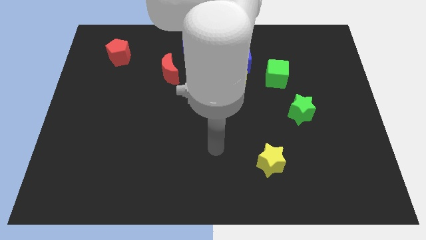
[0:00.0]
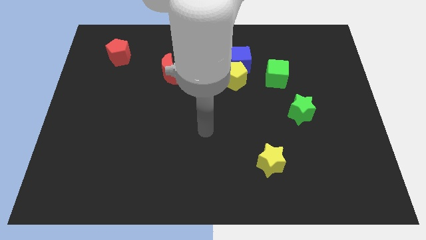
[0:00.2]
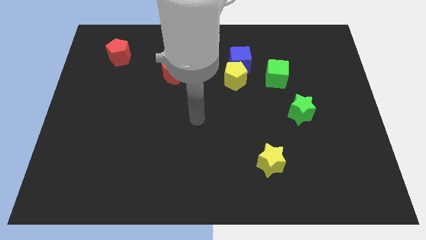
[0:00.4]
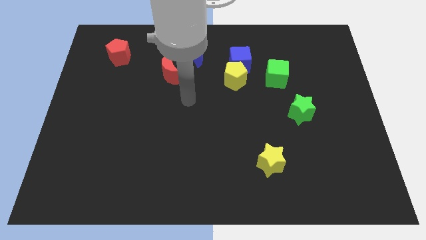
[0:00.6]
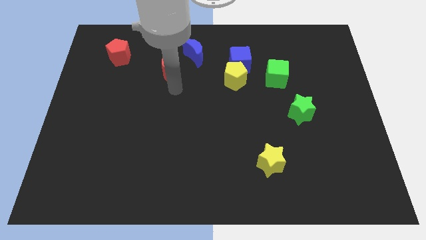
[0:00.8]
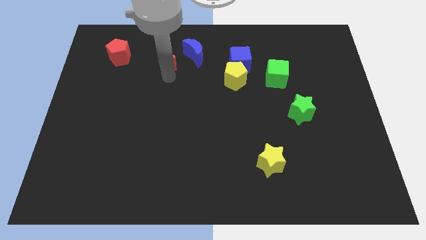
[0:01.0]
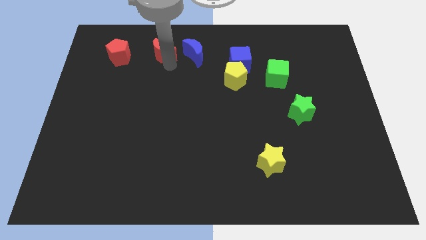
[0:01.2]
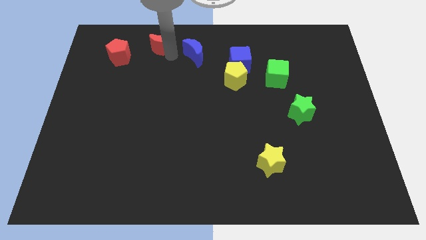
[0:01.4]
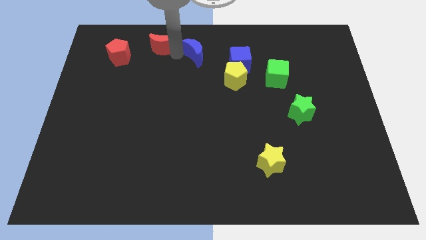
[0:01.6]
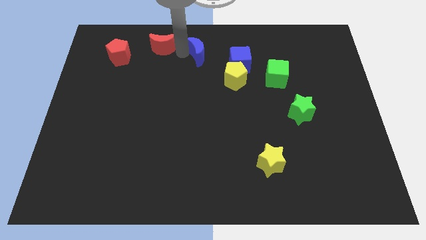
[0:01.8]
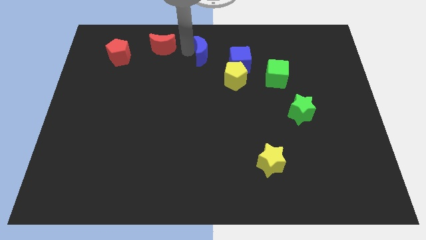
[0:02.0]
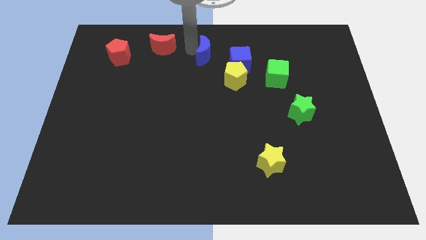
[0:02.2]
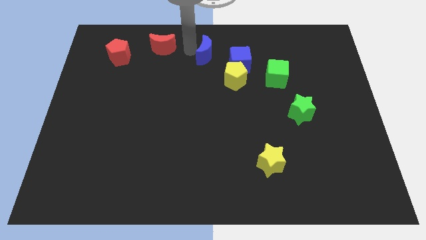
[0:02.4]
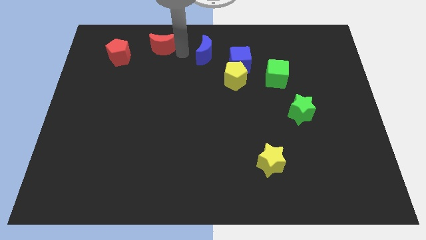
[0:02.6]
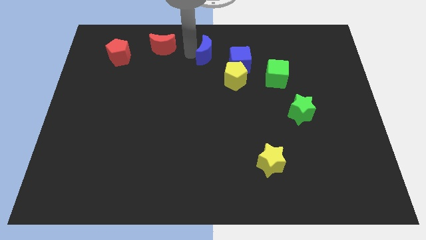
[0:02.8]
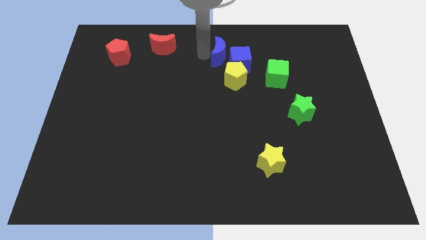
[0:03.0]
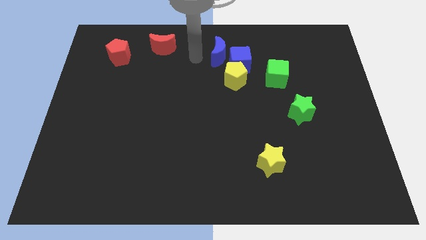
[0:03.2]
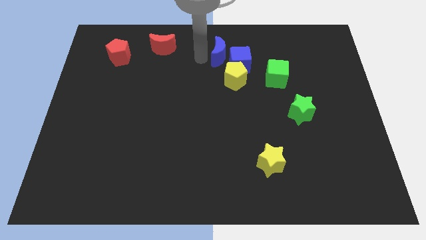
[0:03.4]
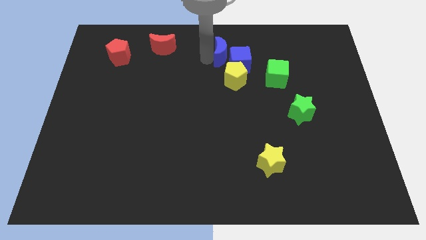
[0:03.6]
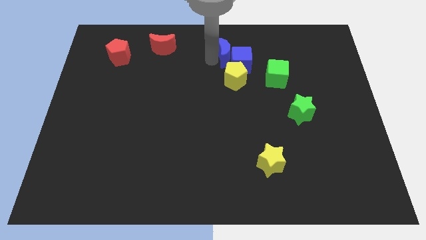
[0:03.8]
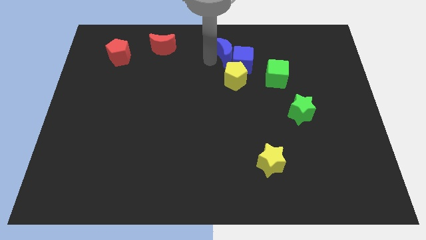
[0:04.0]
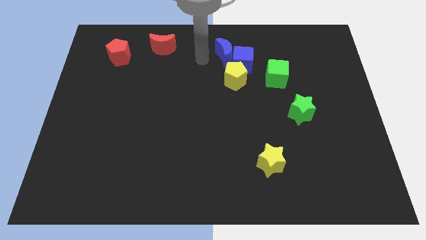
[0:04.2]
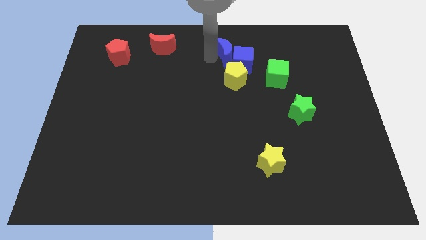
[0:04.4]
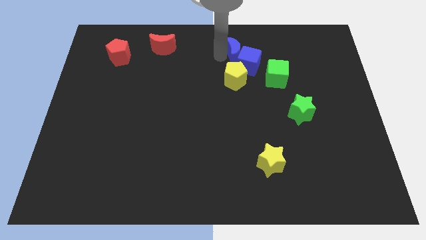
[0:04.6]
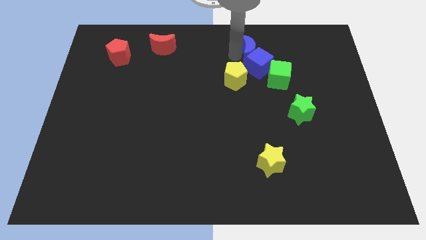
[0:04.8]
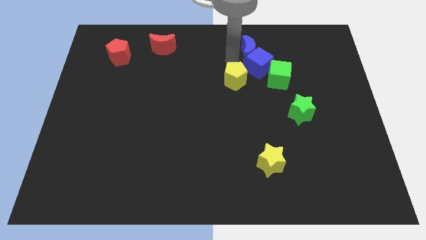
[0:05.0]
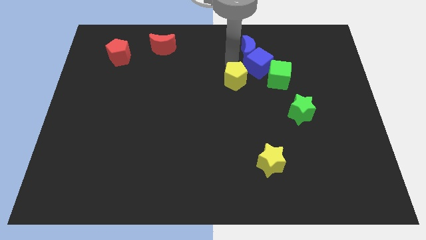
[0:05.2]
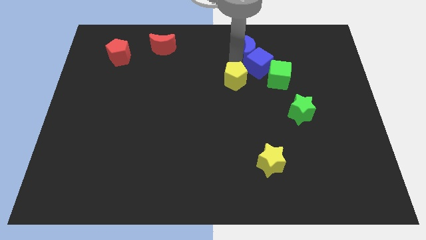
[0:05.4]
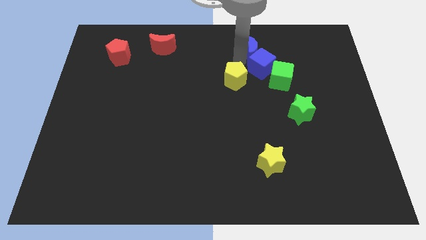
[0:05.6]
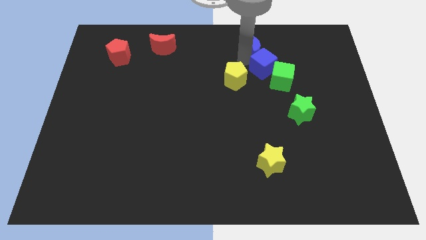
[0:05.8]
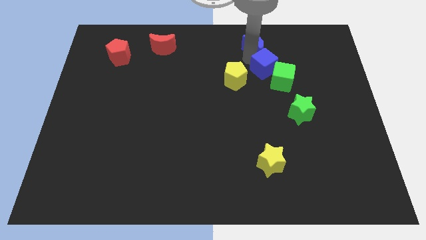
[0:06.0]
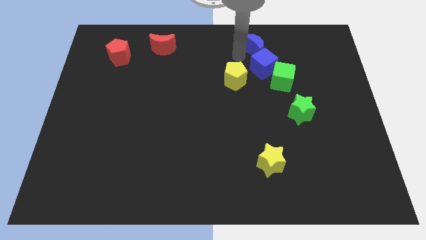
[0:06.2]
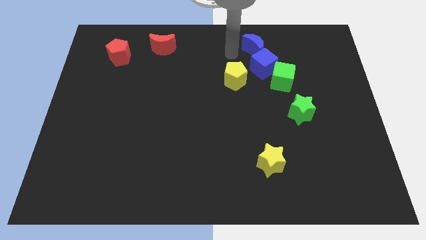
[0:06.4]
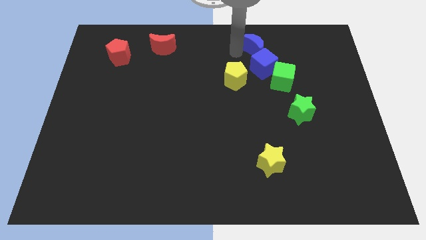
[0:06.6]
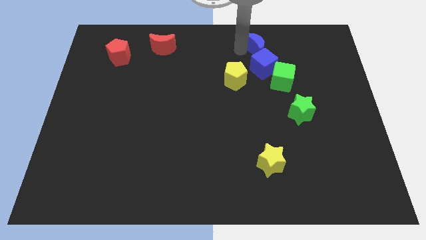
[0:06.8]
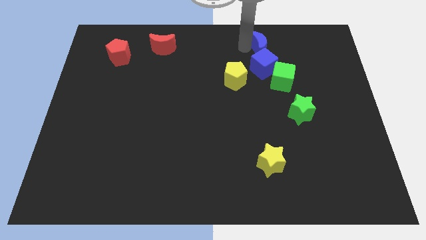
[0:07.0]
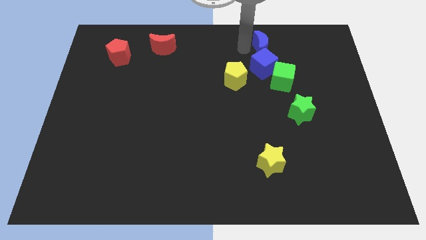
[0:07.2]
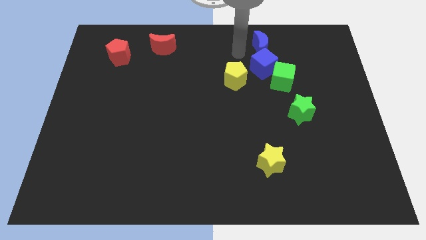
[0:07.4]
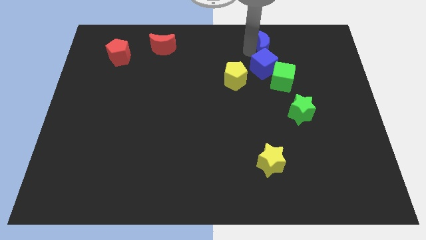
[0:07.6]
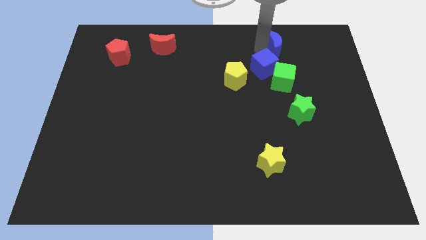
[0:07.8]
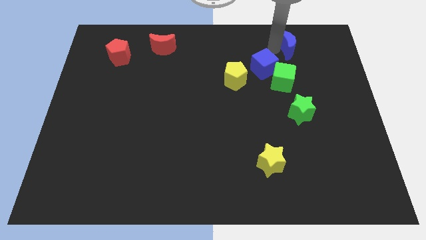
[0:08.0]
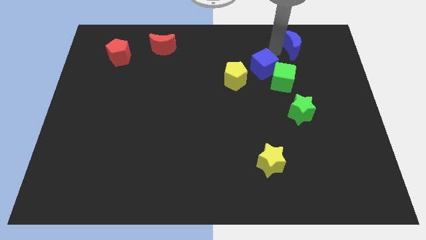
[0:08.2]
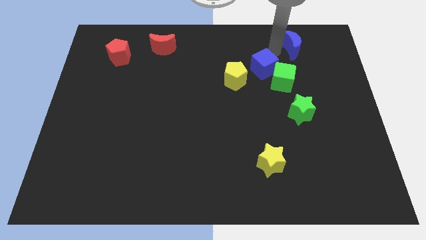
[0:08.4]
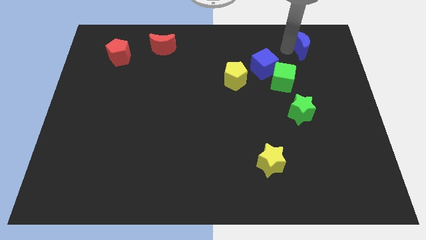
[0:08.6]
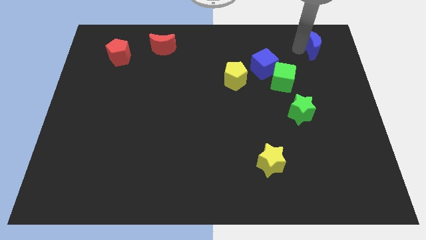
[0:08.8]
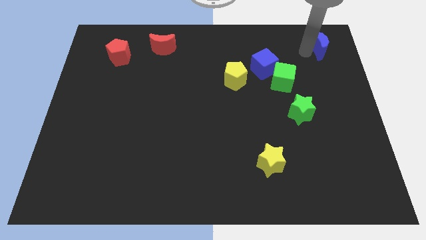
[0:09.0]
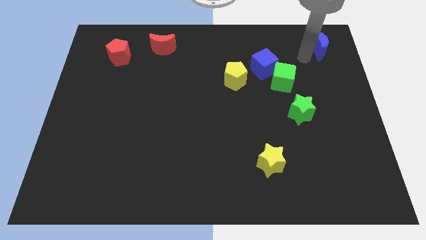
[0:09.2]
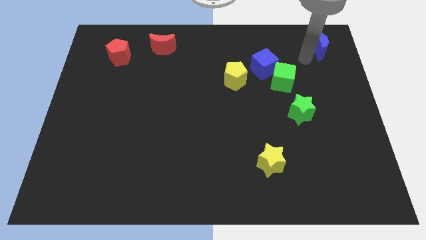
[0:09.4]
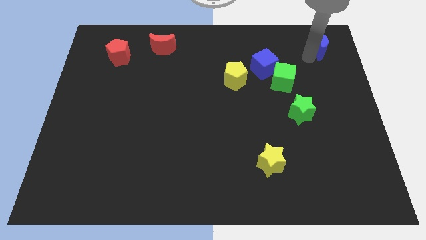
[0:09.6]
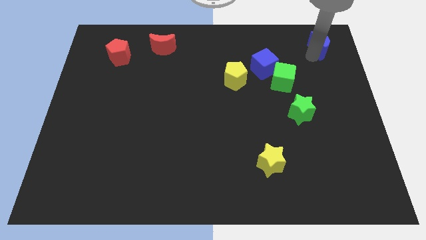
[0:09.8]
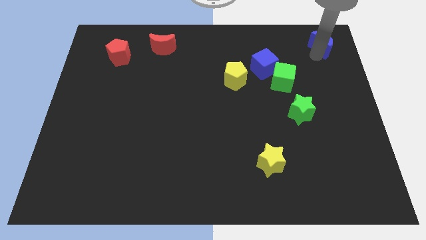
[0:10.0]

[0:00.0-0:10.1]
push the blue moon to the top right

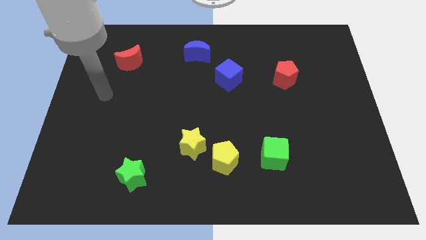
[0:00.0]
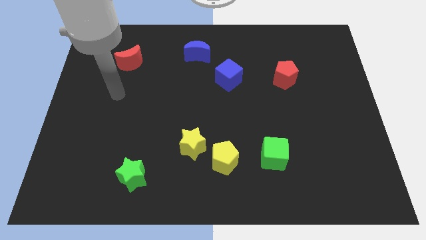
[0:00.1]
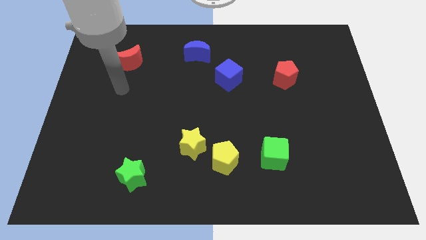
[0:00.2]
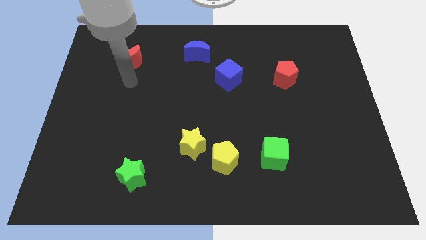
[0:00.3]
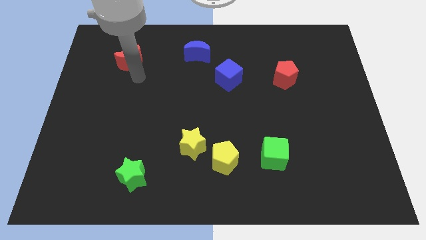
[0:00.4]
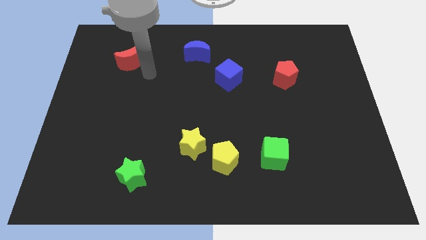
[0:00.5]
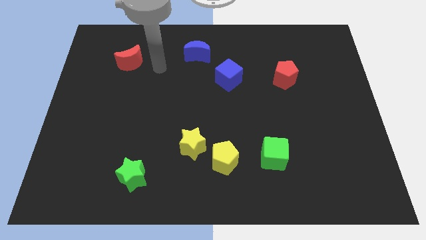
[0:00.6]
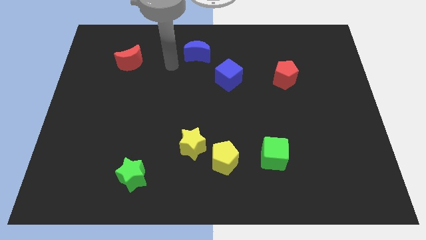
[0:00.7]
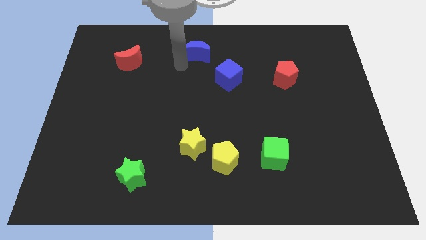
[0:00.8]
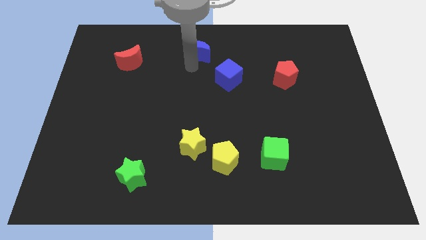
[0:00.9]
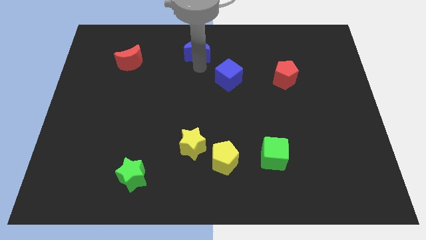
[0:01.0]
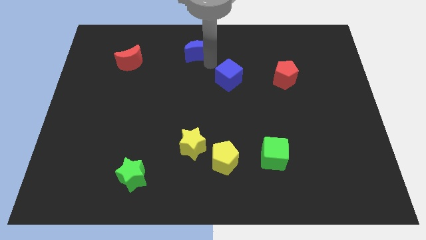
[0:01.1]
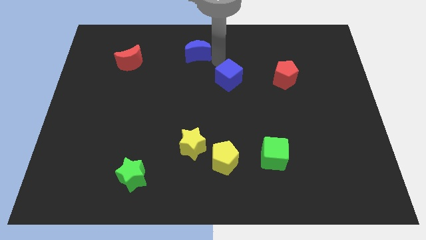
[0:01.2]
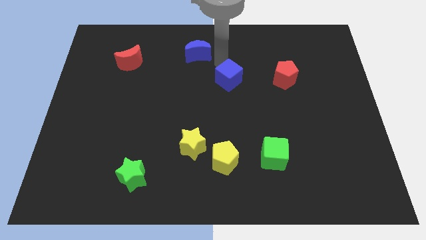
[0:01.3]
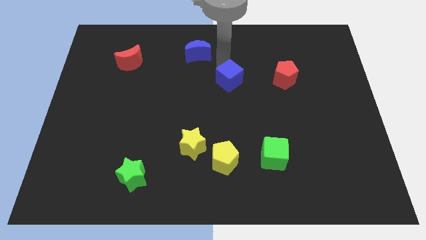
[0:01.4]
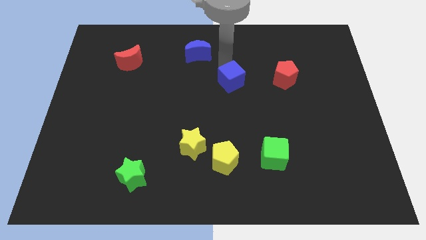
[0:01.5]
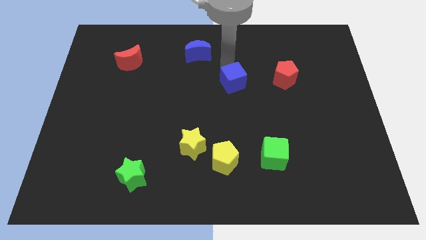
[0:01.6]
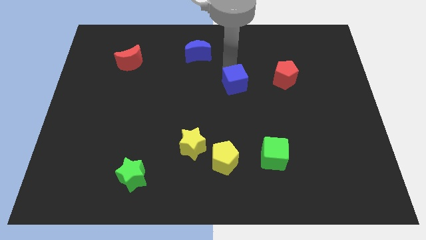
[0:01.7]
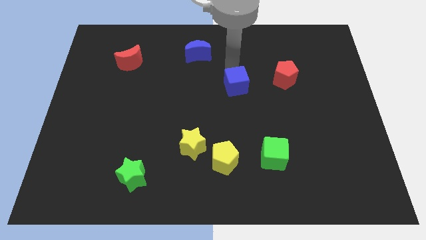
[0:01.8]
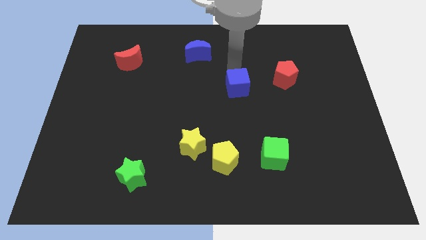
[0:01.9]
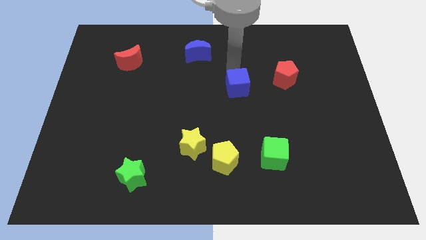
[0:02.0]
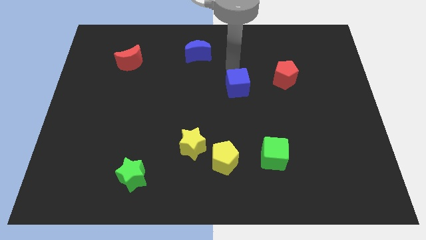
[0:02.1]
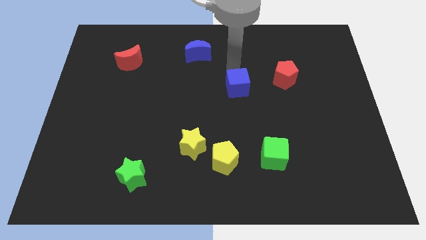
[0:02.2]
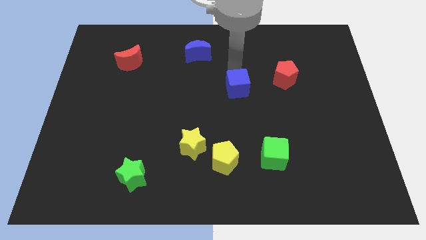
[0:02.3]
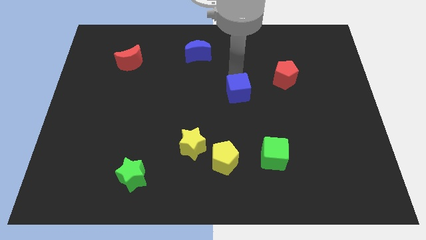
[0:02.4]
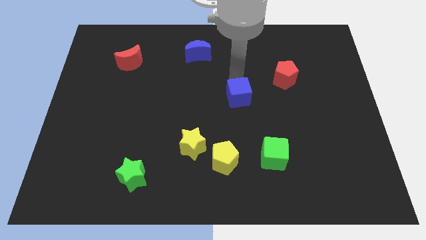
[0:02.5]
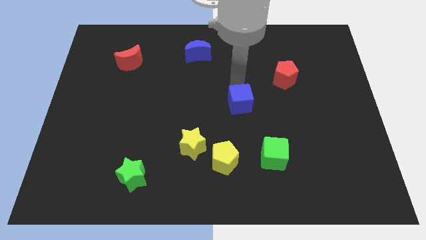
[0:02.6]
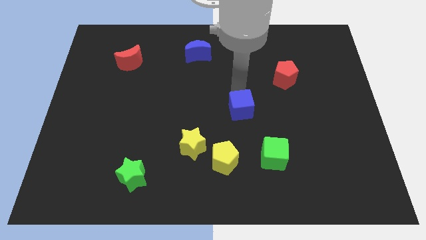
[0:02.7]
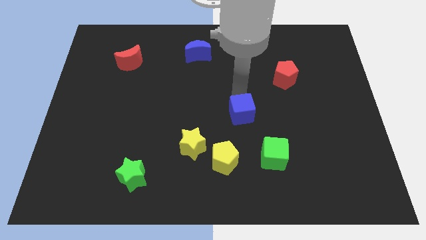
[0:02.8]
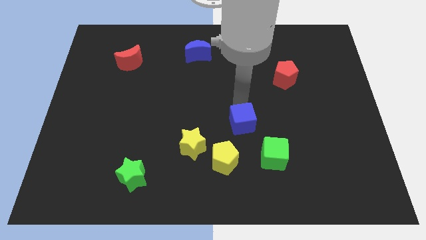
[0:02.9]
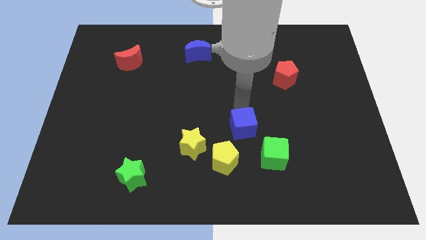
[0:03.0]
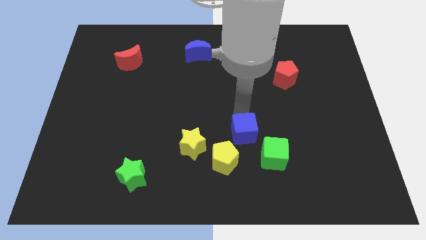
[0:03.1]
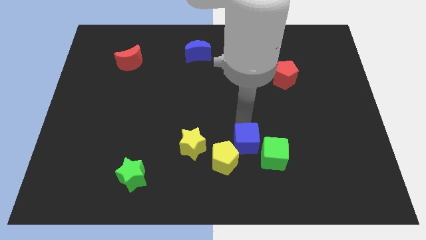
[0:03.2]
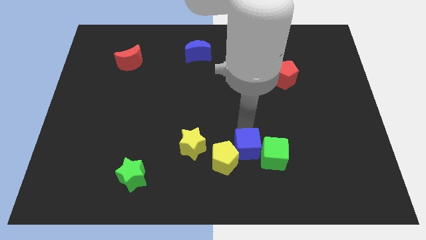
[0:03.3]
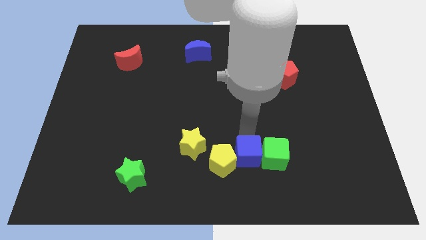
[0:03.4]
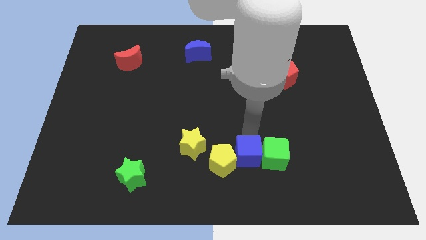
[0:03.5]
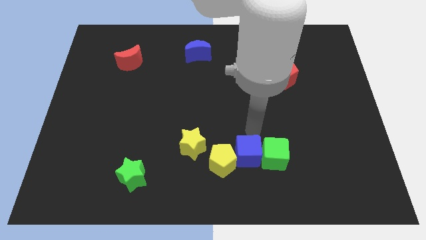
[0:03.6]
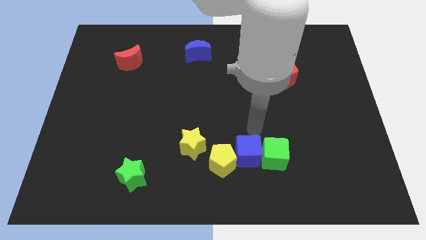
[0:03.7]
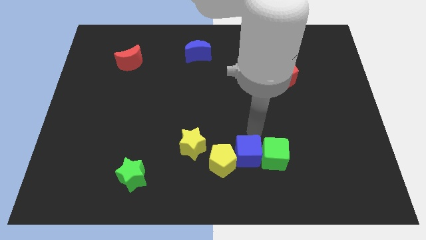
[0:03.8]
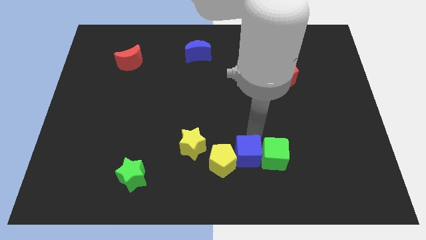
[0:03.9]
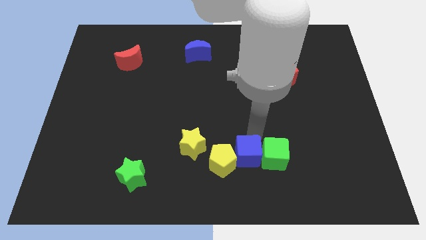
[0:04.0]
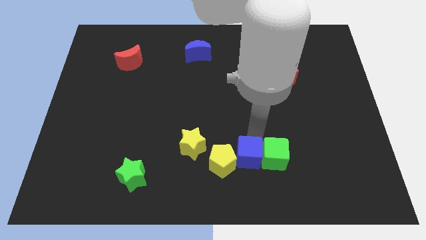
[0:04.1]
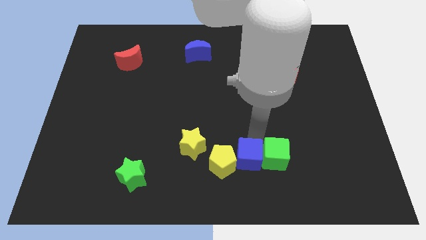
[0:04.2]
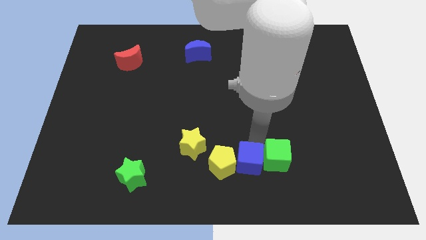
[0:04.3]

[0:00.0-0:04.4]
put the blue cube to the bottom
